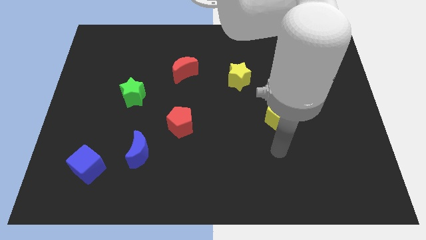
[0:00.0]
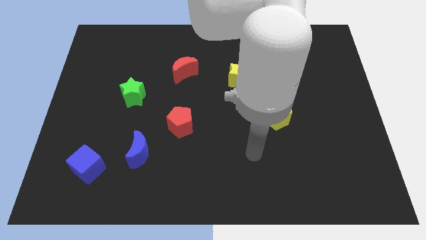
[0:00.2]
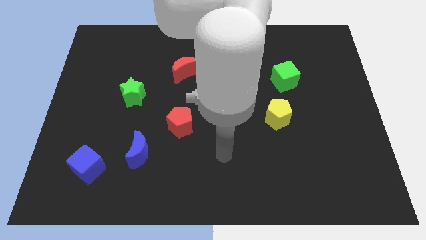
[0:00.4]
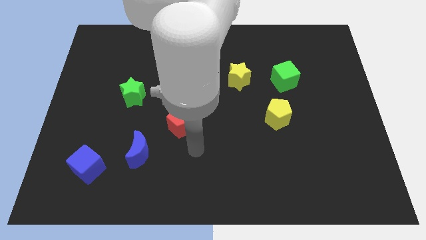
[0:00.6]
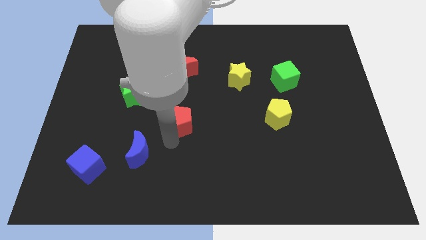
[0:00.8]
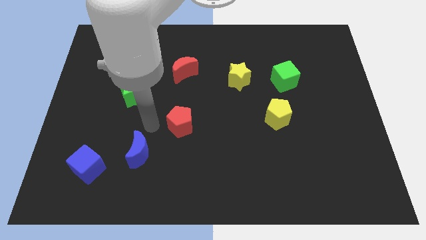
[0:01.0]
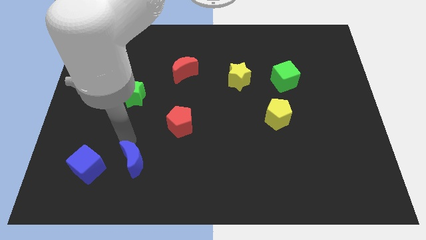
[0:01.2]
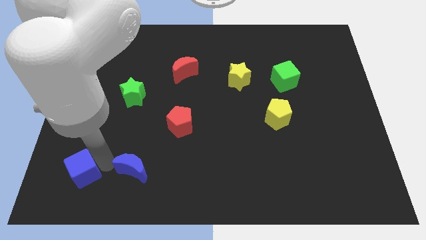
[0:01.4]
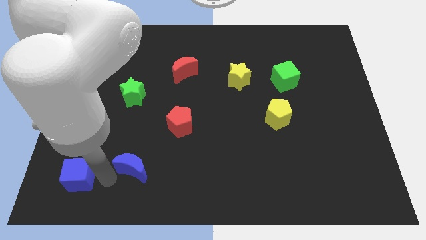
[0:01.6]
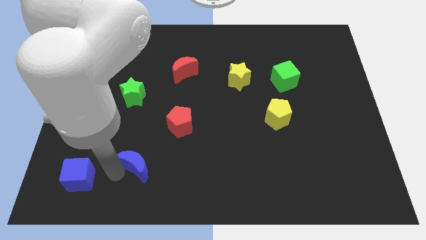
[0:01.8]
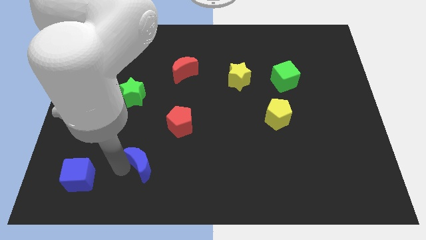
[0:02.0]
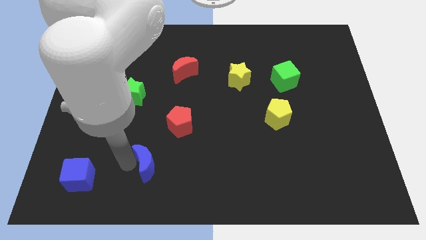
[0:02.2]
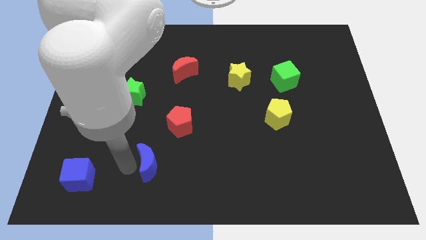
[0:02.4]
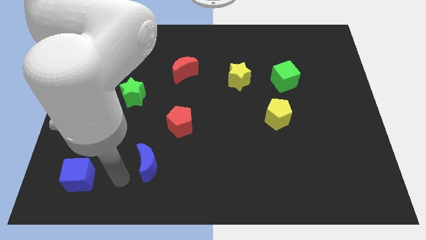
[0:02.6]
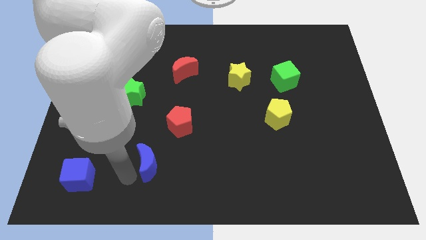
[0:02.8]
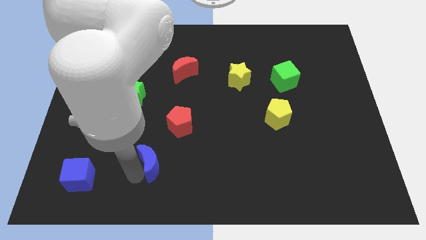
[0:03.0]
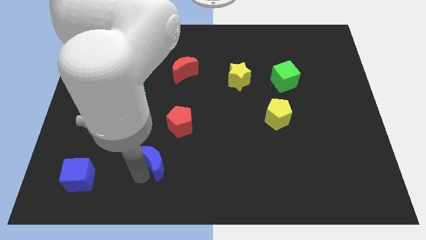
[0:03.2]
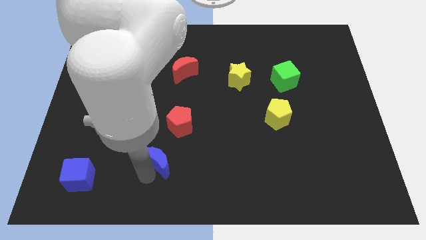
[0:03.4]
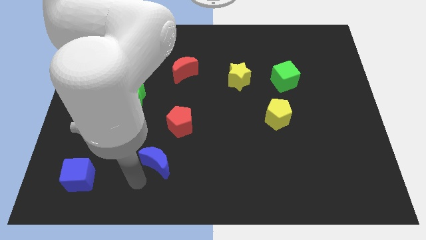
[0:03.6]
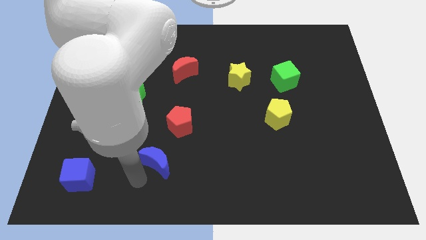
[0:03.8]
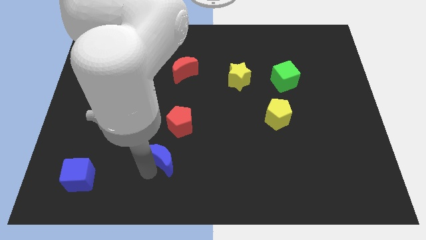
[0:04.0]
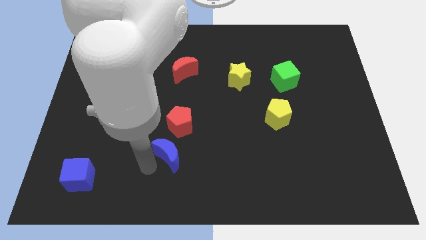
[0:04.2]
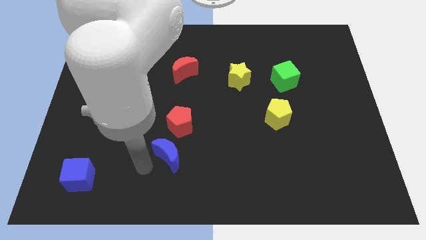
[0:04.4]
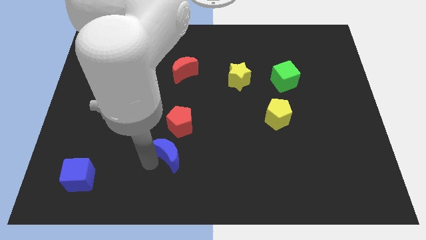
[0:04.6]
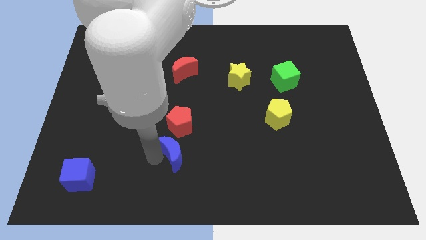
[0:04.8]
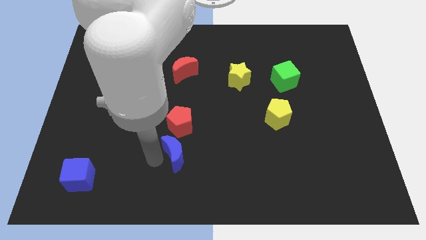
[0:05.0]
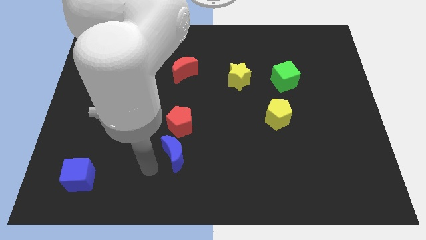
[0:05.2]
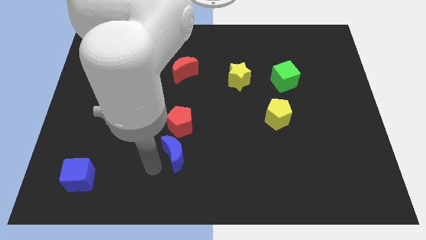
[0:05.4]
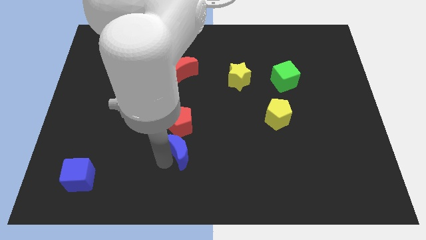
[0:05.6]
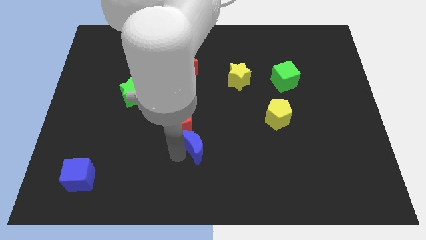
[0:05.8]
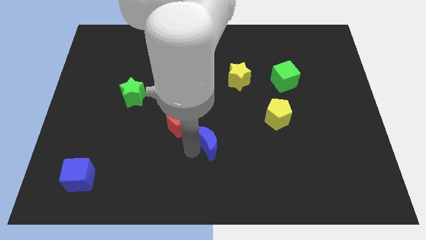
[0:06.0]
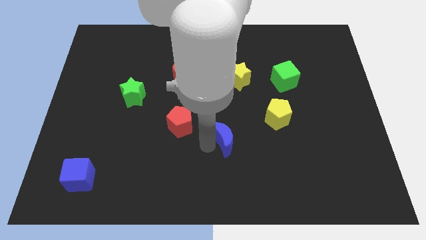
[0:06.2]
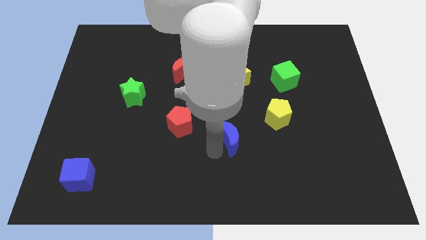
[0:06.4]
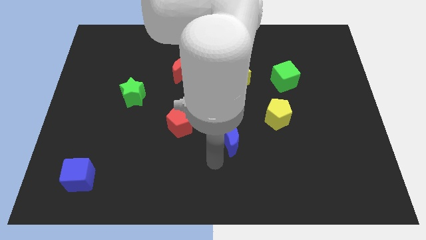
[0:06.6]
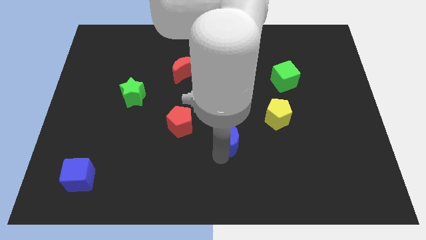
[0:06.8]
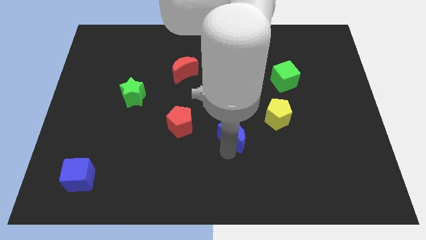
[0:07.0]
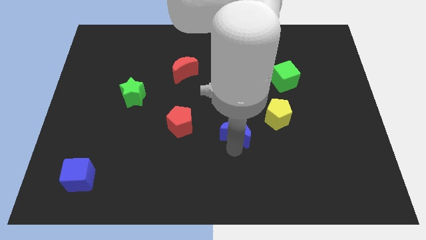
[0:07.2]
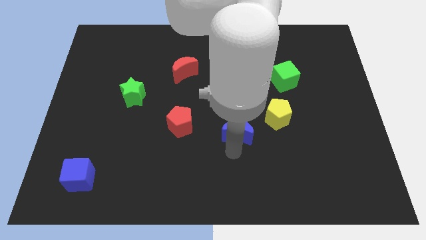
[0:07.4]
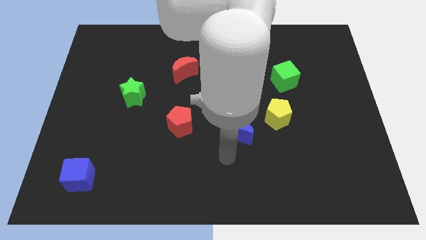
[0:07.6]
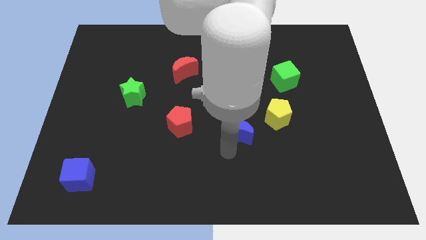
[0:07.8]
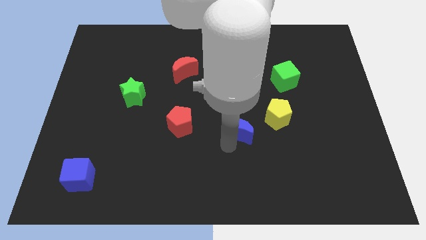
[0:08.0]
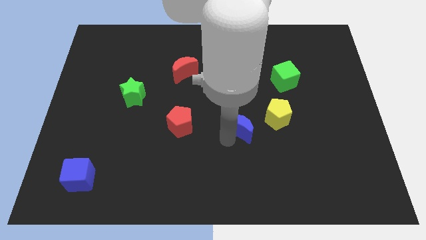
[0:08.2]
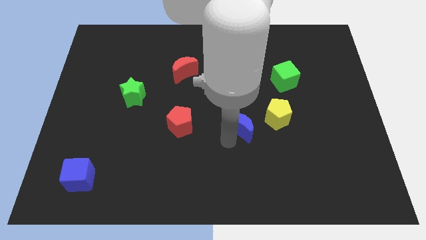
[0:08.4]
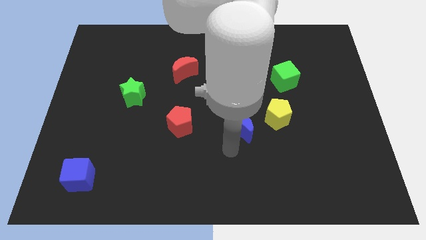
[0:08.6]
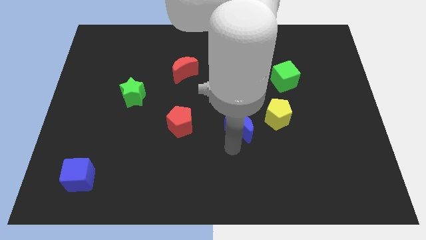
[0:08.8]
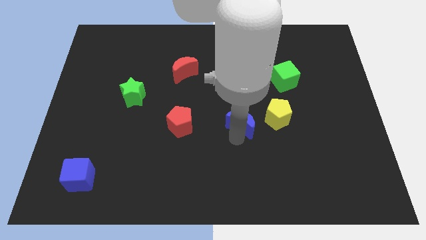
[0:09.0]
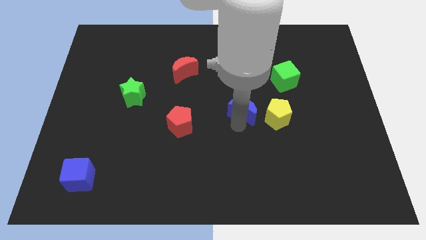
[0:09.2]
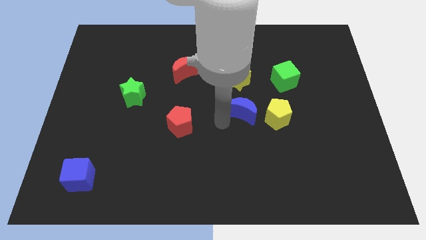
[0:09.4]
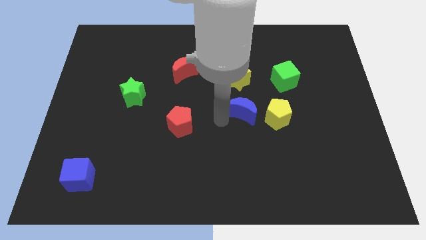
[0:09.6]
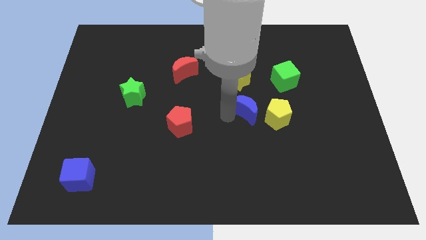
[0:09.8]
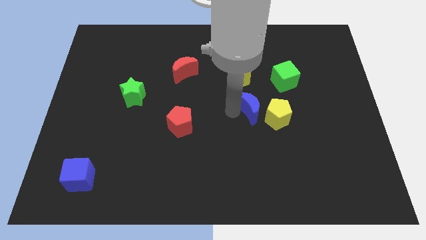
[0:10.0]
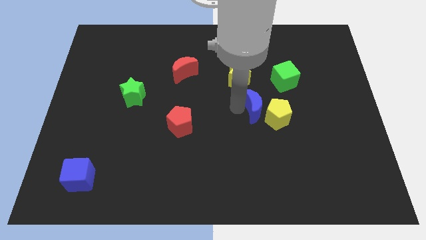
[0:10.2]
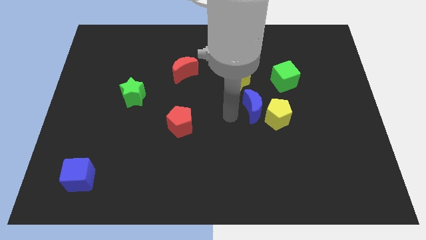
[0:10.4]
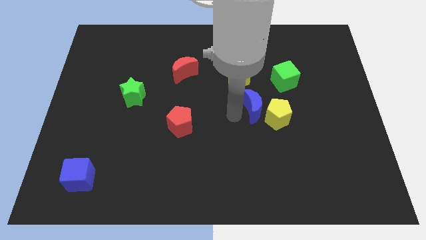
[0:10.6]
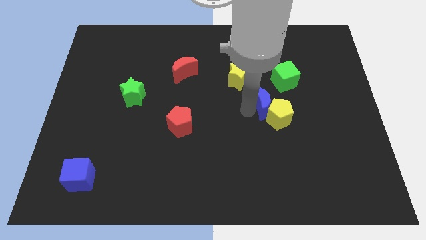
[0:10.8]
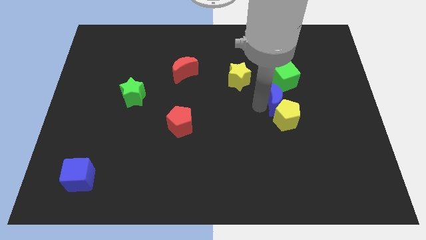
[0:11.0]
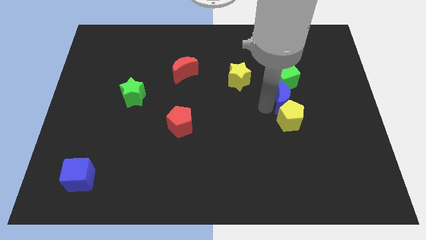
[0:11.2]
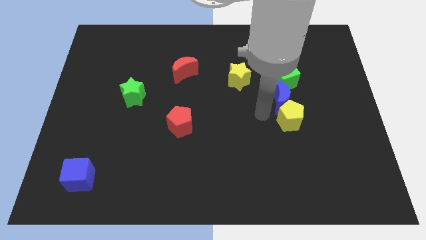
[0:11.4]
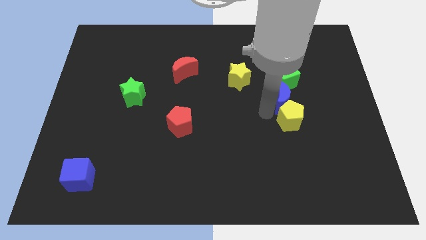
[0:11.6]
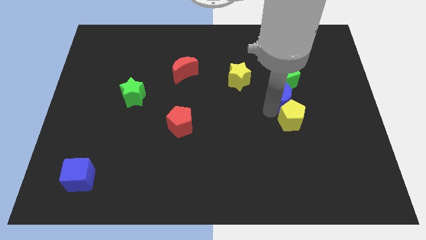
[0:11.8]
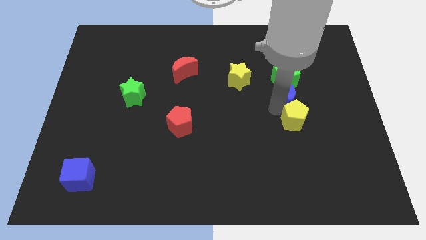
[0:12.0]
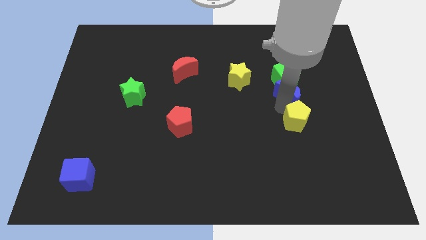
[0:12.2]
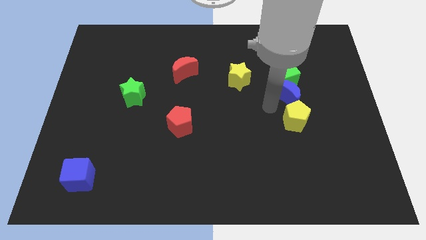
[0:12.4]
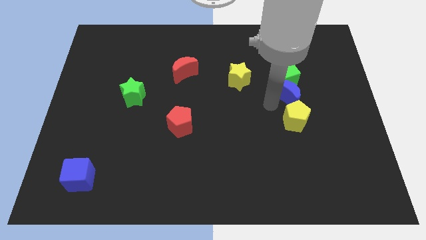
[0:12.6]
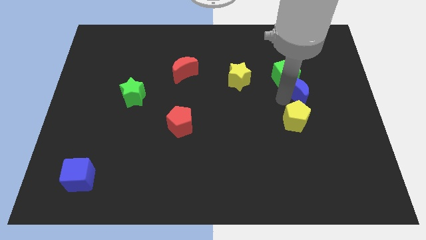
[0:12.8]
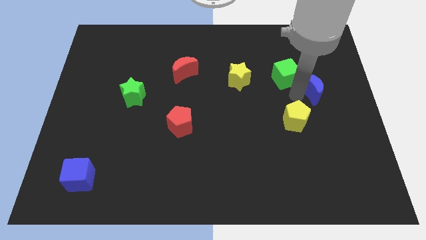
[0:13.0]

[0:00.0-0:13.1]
move the blue moon to the right of the green cube

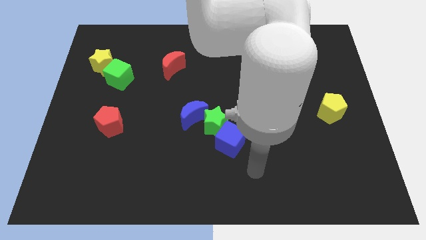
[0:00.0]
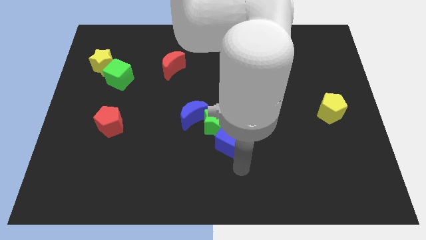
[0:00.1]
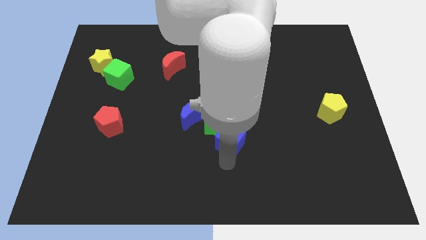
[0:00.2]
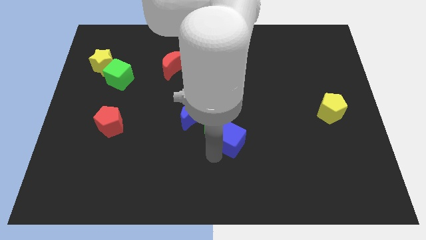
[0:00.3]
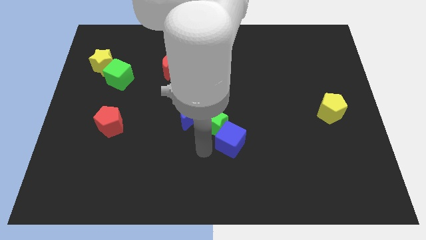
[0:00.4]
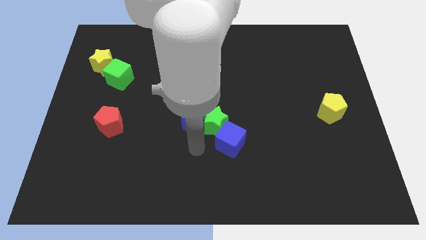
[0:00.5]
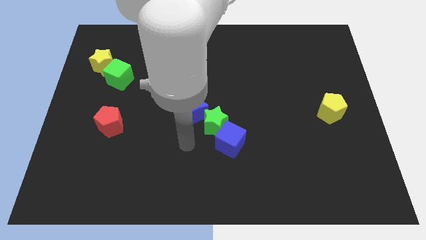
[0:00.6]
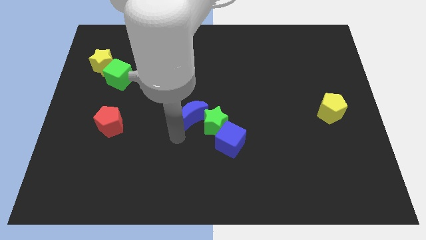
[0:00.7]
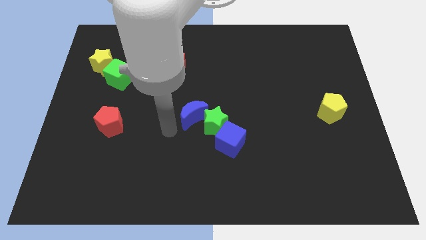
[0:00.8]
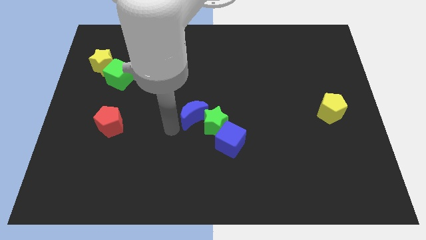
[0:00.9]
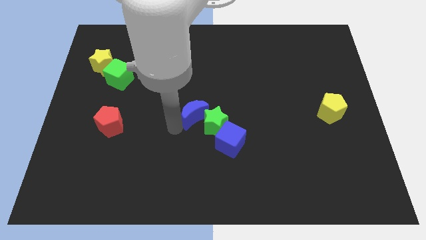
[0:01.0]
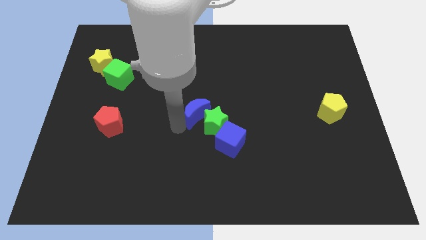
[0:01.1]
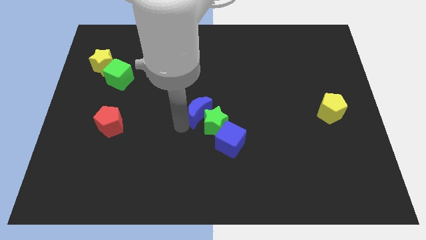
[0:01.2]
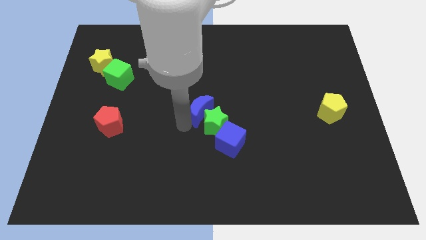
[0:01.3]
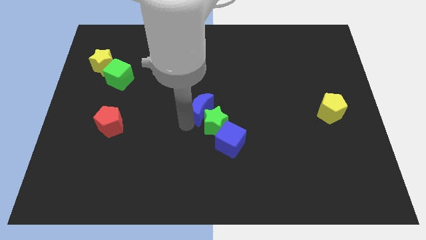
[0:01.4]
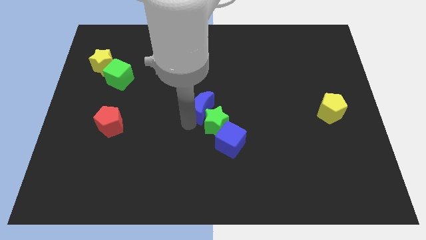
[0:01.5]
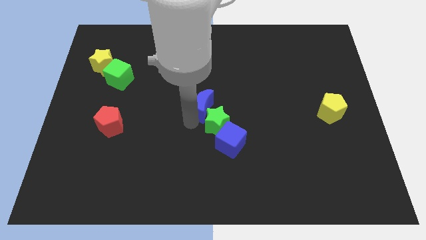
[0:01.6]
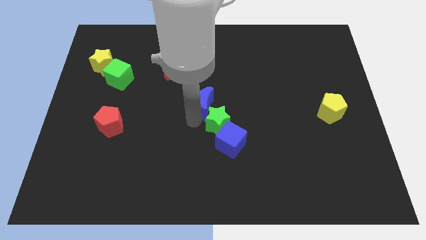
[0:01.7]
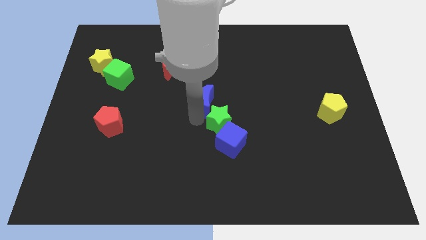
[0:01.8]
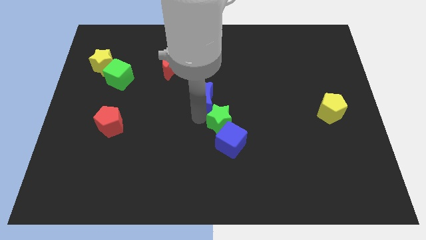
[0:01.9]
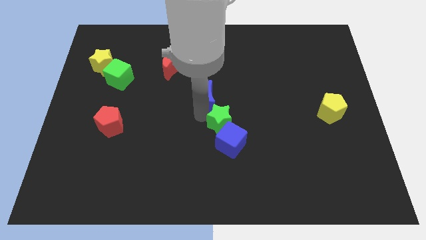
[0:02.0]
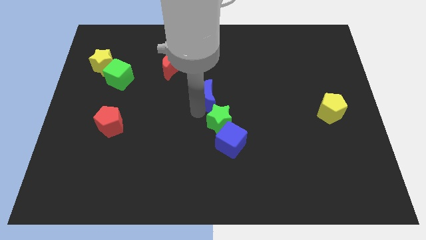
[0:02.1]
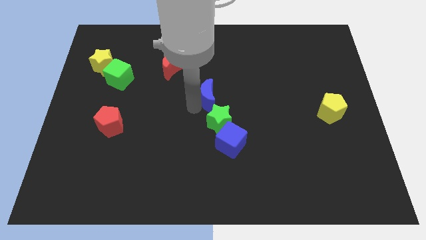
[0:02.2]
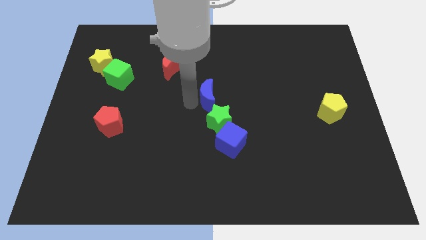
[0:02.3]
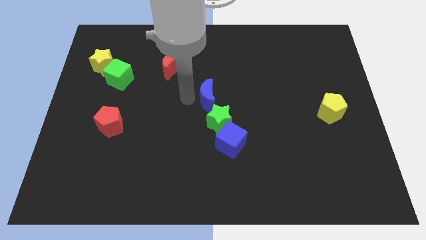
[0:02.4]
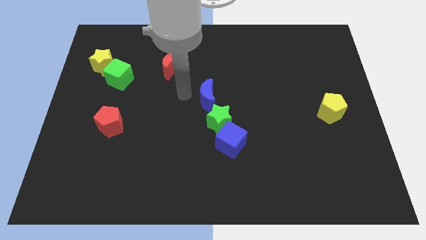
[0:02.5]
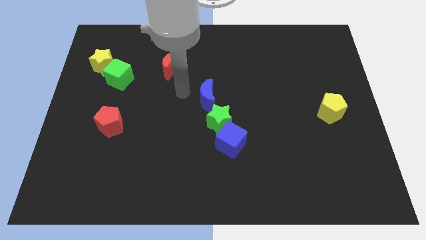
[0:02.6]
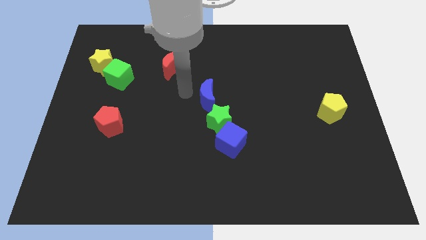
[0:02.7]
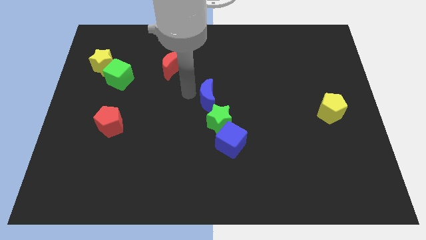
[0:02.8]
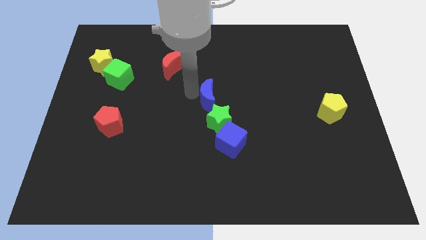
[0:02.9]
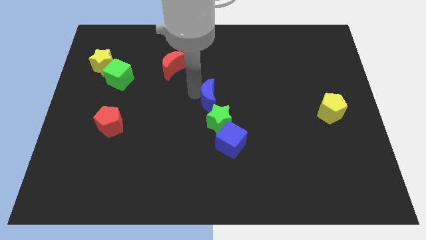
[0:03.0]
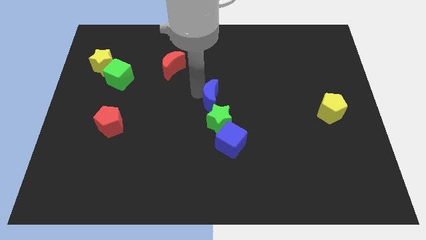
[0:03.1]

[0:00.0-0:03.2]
push the blue moon to the top of the blue cube
